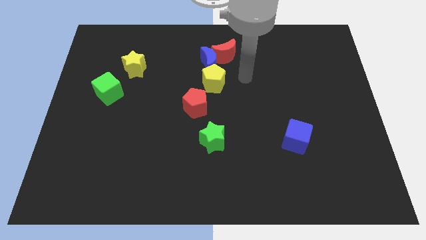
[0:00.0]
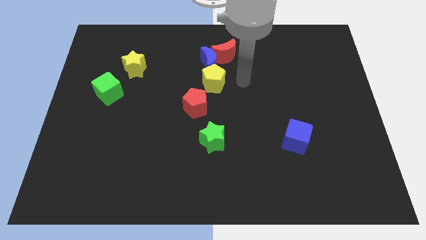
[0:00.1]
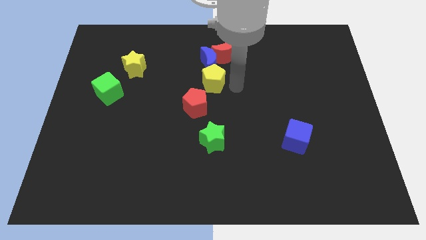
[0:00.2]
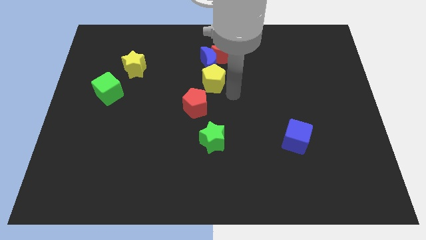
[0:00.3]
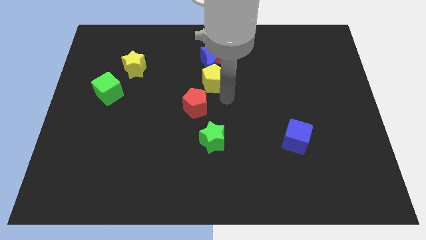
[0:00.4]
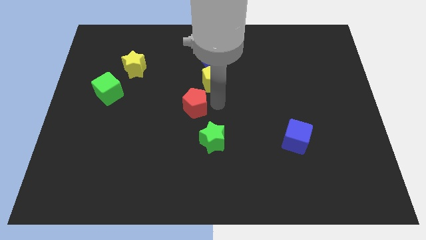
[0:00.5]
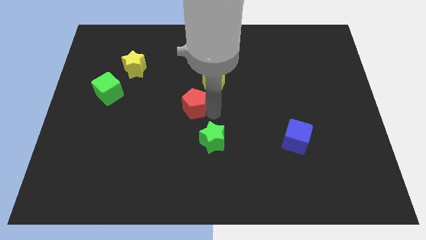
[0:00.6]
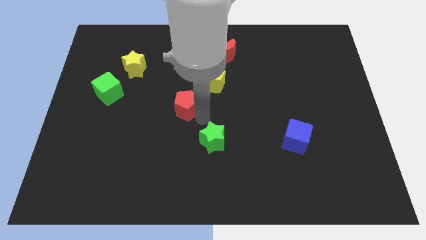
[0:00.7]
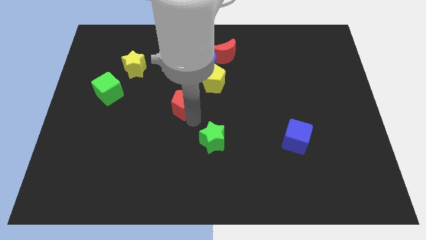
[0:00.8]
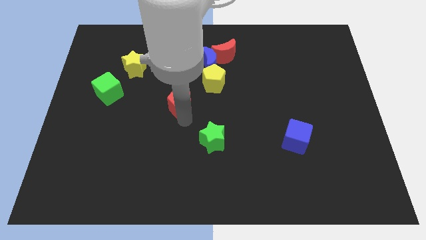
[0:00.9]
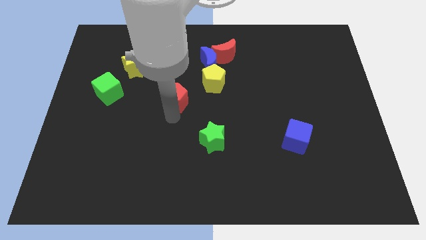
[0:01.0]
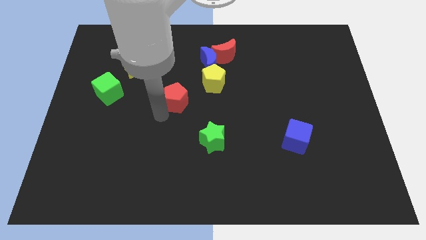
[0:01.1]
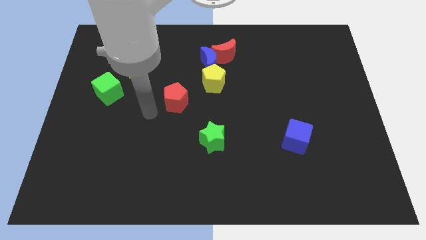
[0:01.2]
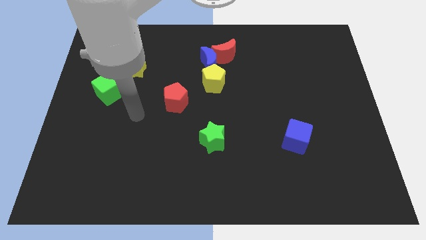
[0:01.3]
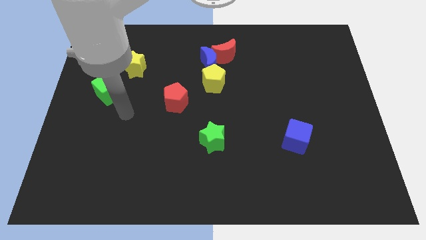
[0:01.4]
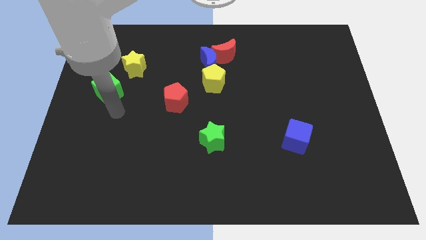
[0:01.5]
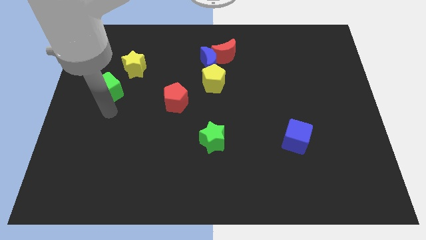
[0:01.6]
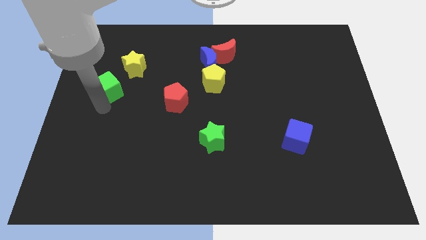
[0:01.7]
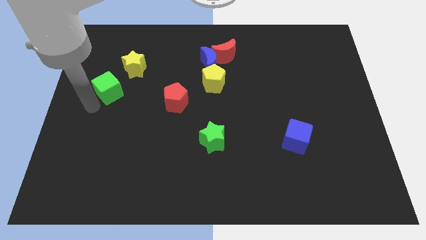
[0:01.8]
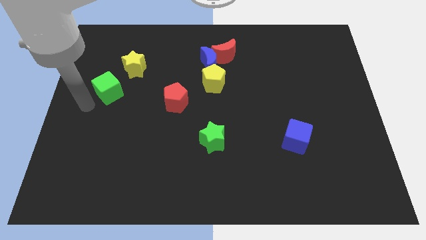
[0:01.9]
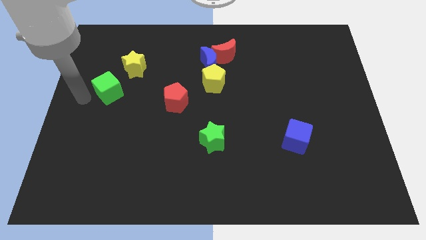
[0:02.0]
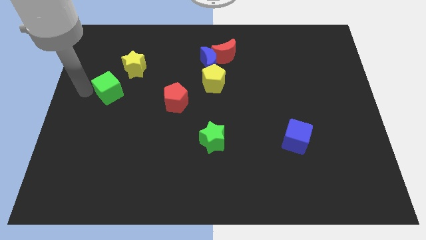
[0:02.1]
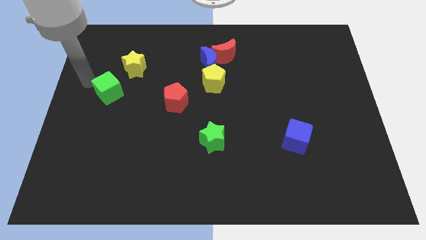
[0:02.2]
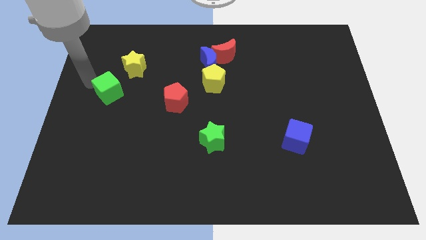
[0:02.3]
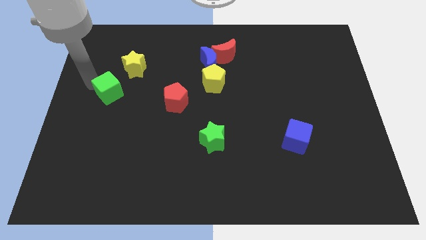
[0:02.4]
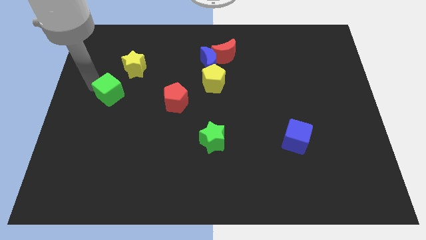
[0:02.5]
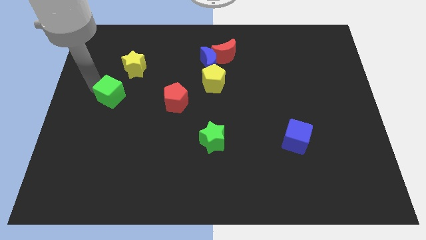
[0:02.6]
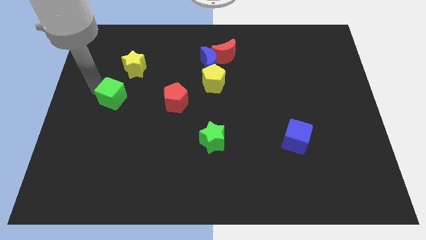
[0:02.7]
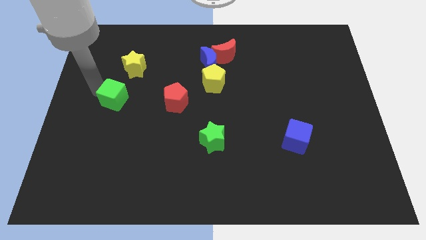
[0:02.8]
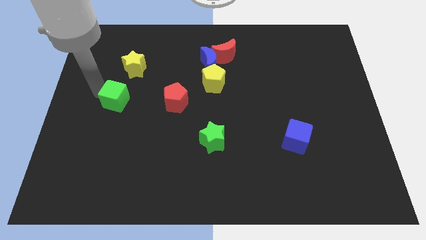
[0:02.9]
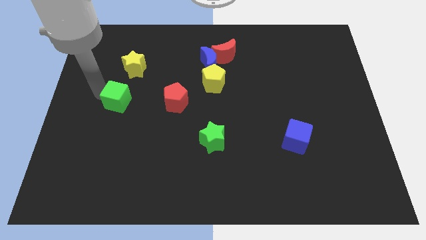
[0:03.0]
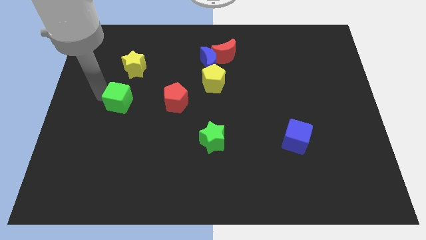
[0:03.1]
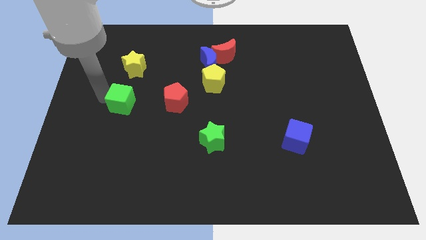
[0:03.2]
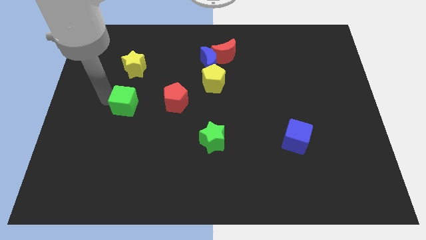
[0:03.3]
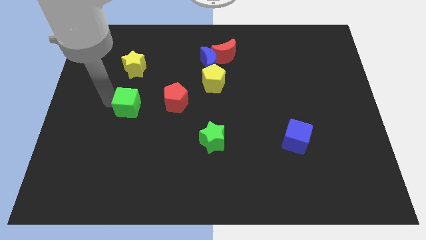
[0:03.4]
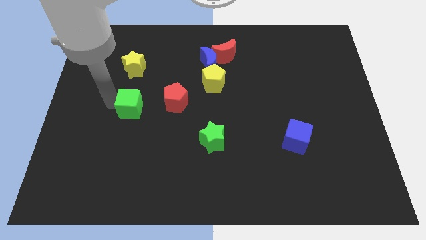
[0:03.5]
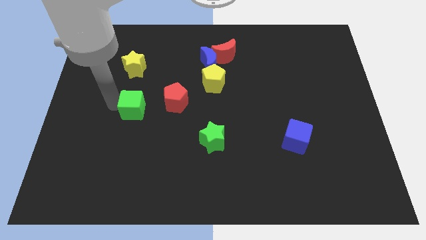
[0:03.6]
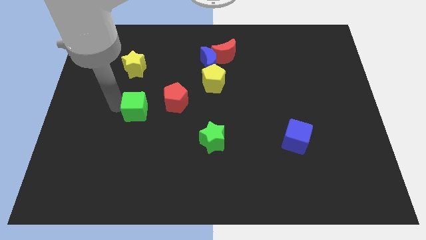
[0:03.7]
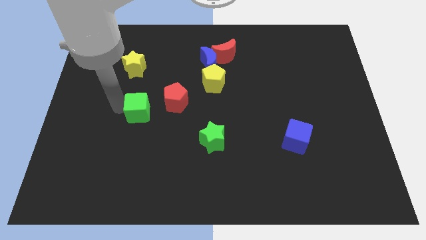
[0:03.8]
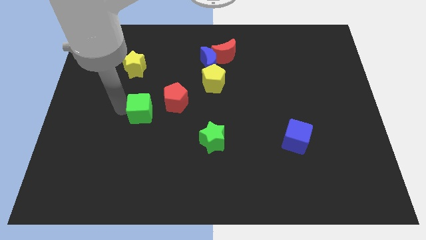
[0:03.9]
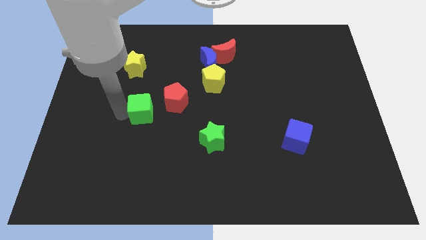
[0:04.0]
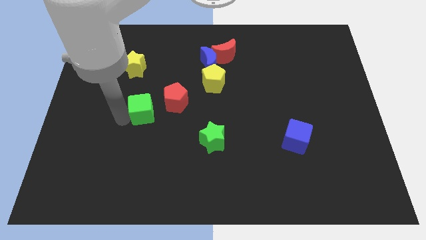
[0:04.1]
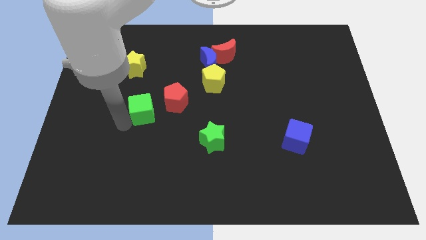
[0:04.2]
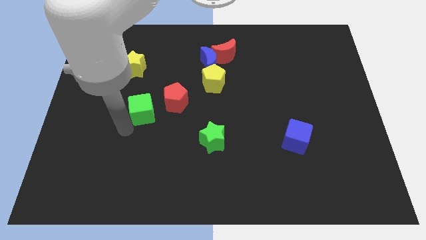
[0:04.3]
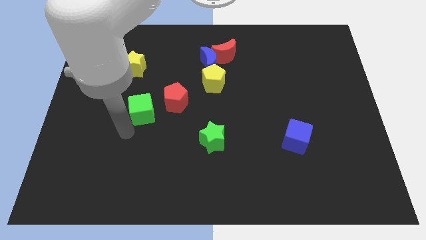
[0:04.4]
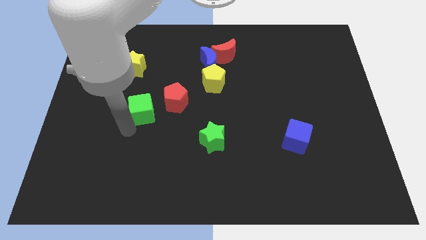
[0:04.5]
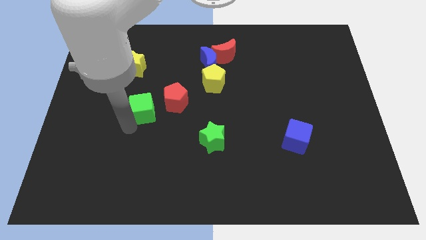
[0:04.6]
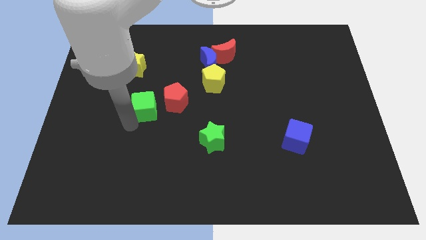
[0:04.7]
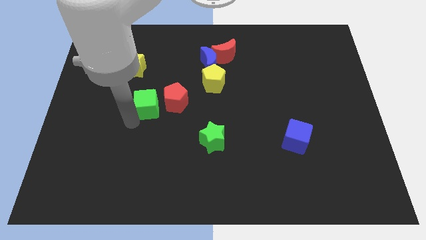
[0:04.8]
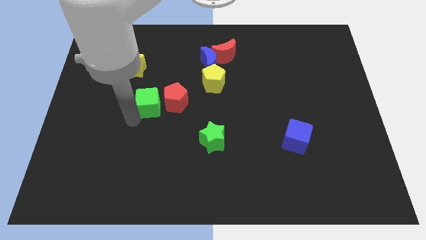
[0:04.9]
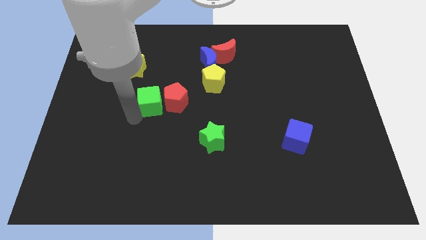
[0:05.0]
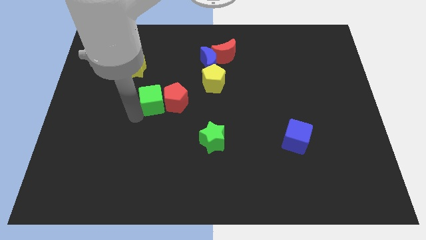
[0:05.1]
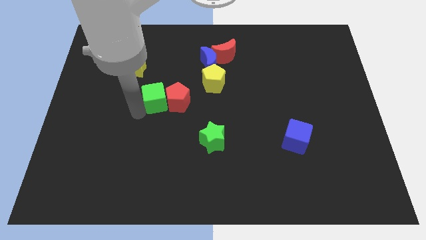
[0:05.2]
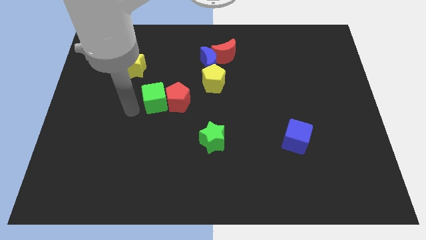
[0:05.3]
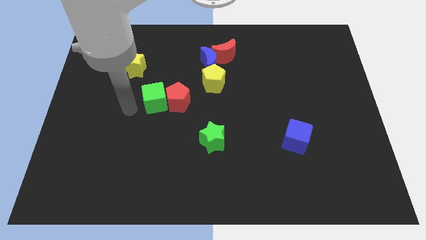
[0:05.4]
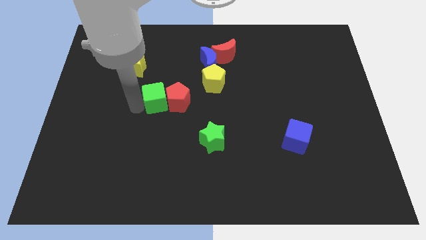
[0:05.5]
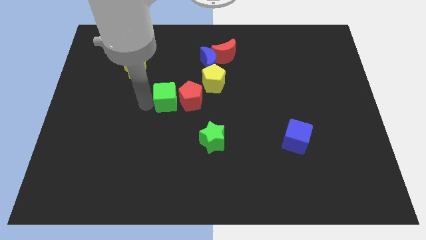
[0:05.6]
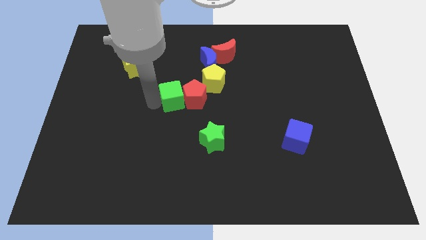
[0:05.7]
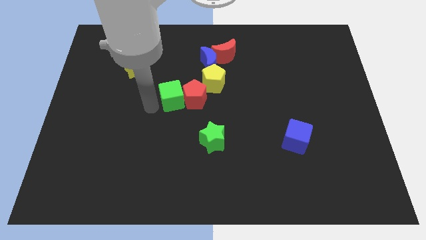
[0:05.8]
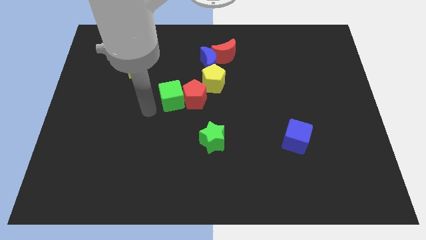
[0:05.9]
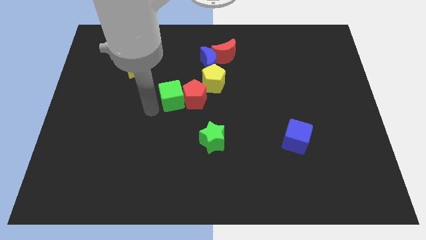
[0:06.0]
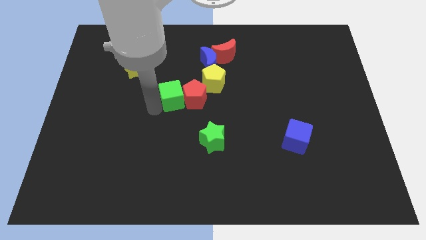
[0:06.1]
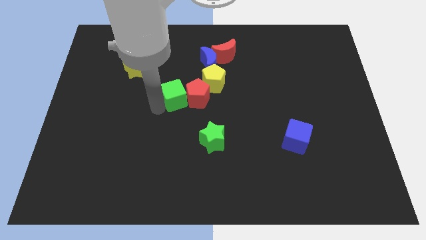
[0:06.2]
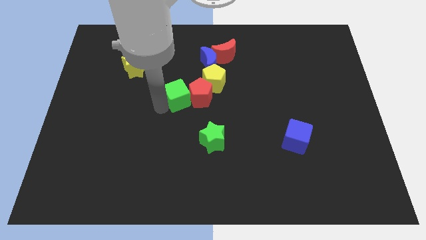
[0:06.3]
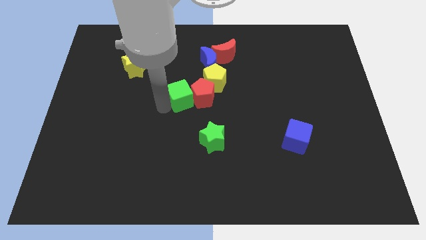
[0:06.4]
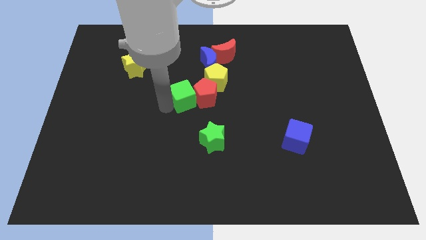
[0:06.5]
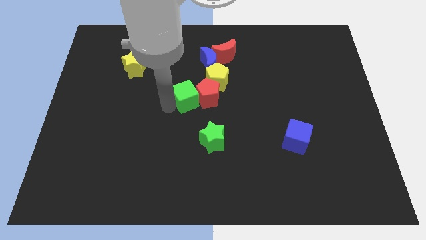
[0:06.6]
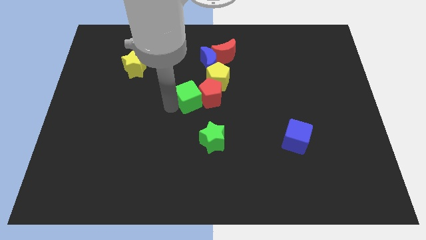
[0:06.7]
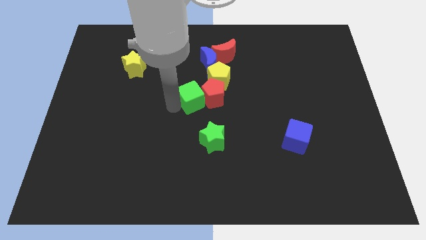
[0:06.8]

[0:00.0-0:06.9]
push the green cube right

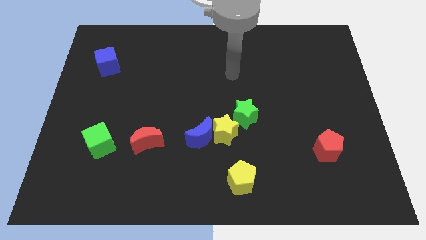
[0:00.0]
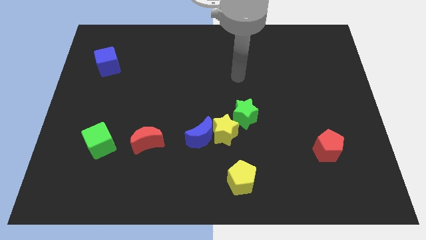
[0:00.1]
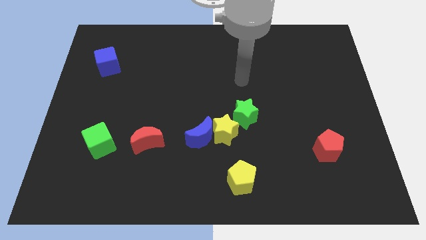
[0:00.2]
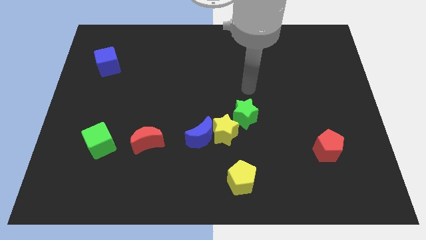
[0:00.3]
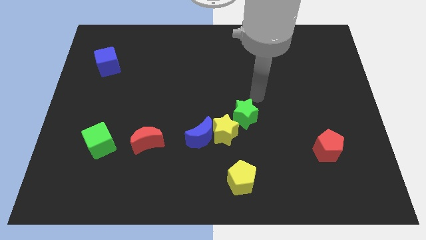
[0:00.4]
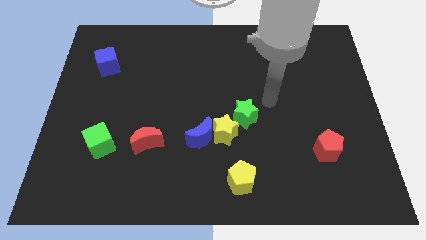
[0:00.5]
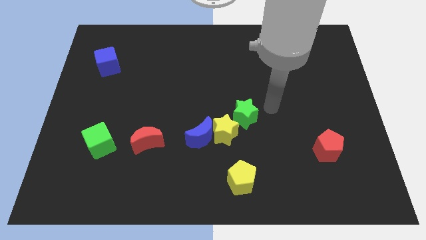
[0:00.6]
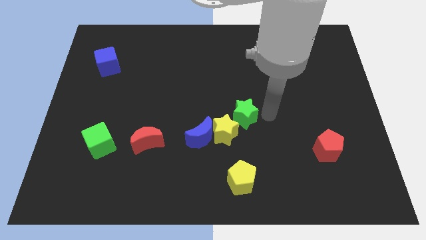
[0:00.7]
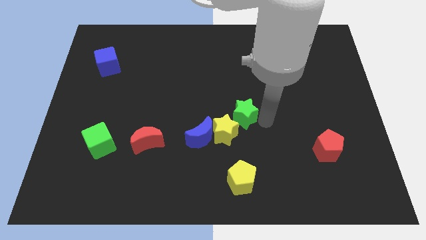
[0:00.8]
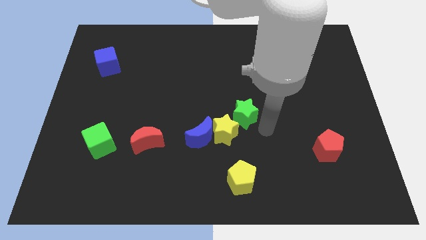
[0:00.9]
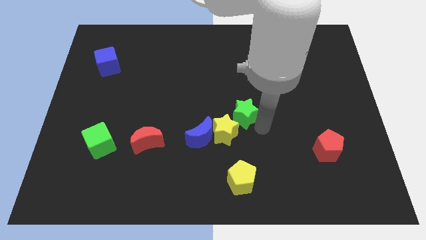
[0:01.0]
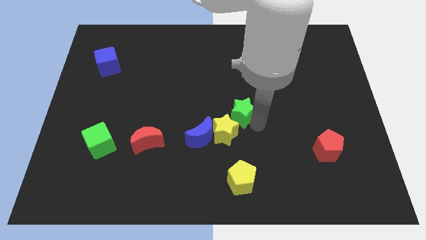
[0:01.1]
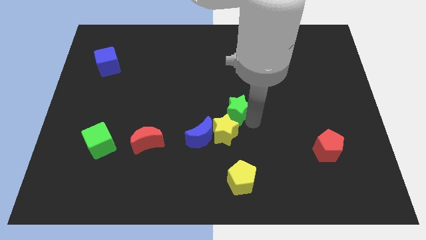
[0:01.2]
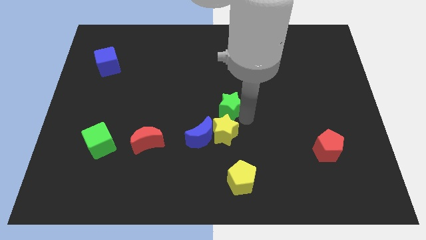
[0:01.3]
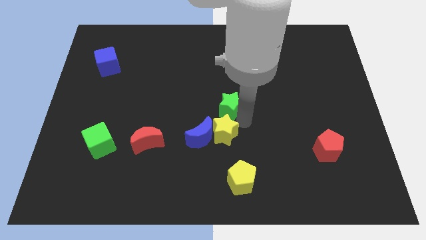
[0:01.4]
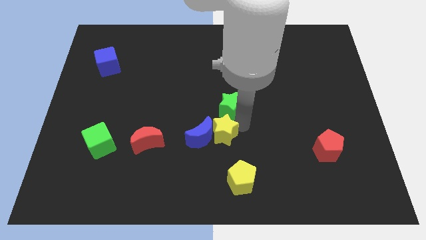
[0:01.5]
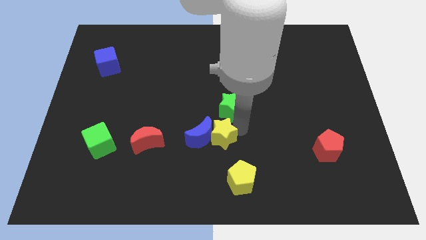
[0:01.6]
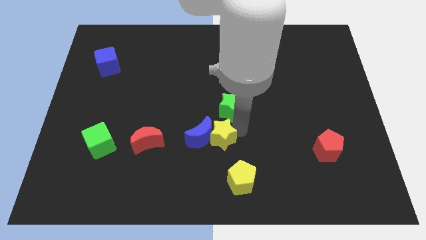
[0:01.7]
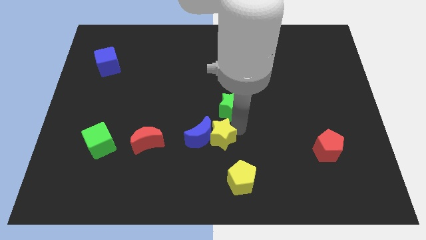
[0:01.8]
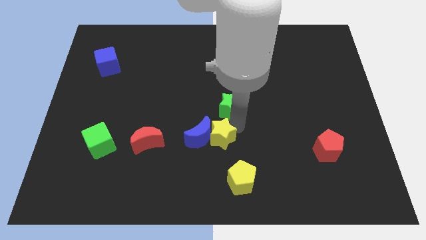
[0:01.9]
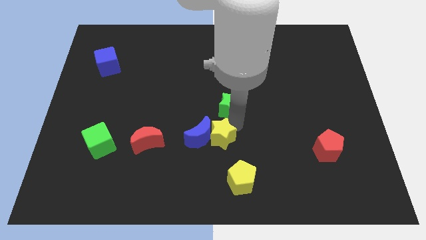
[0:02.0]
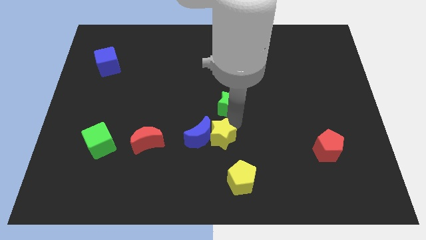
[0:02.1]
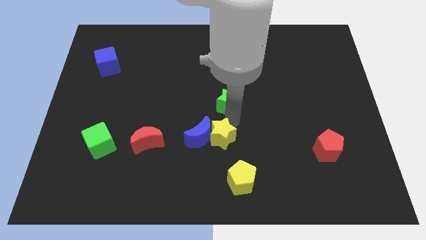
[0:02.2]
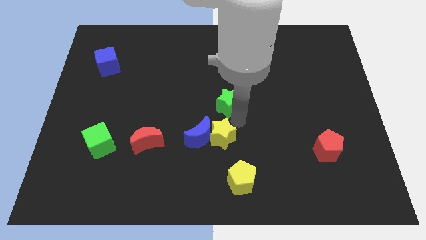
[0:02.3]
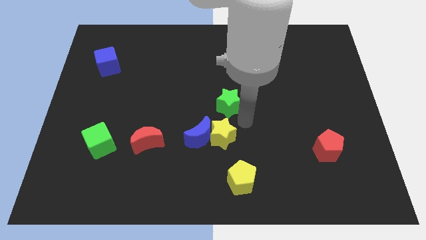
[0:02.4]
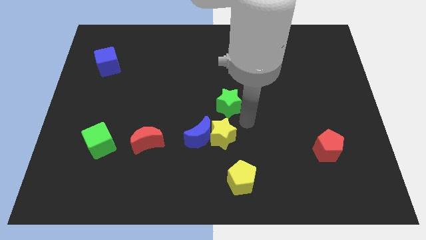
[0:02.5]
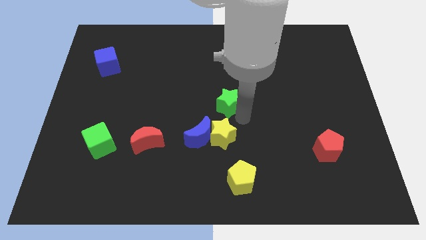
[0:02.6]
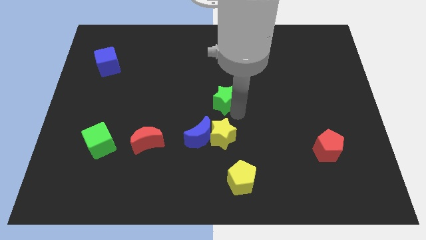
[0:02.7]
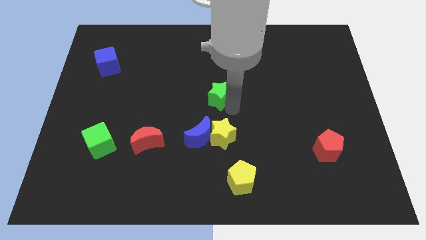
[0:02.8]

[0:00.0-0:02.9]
slightly slide the green star up and then to the left
